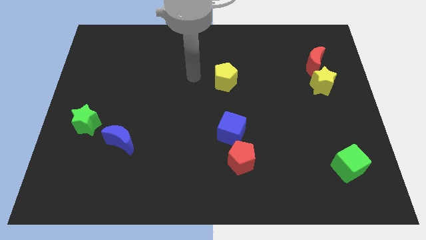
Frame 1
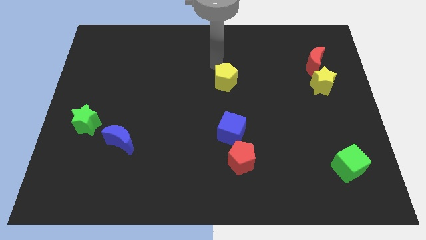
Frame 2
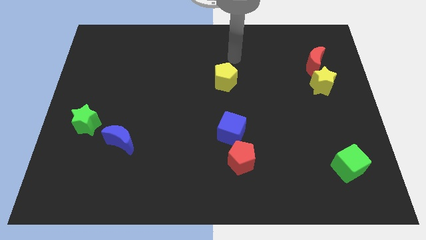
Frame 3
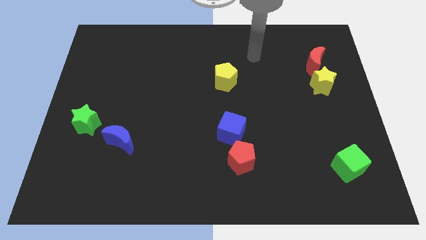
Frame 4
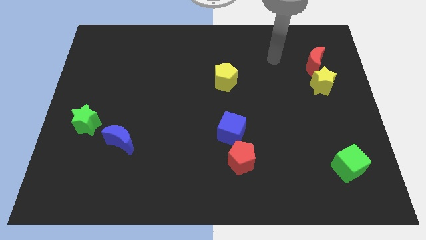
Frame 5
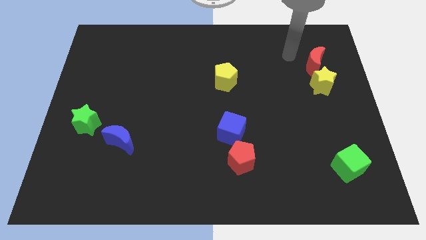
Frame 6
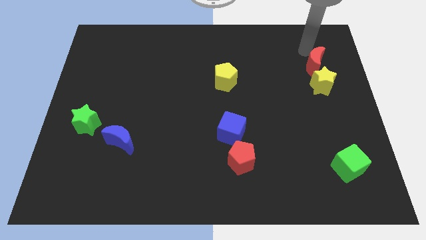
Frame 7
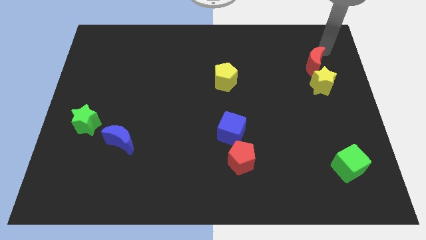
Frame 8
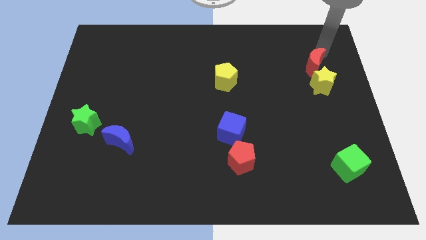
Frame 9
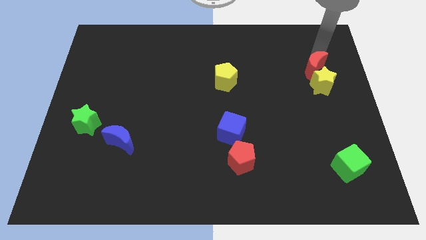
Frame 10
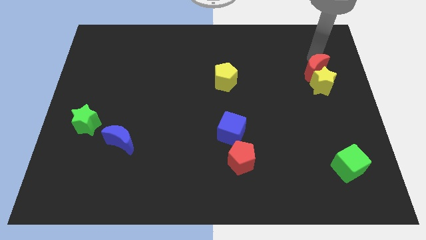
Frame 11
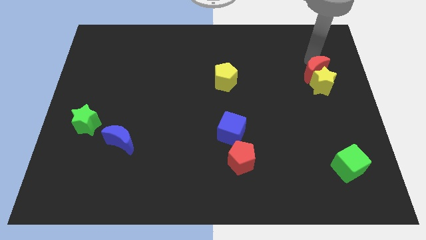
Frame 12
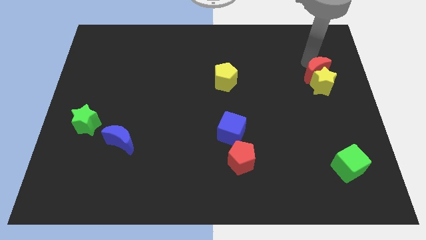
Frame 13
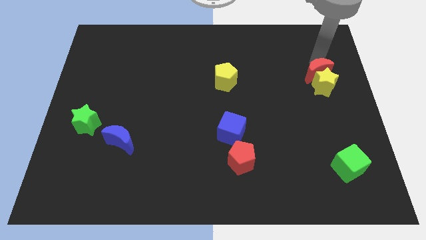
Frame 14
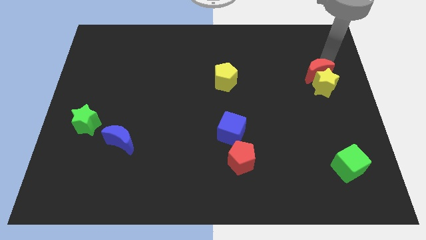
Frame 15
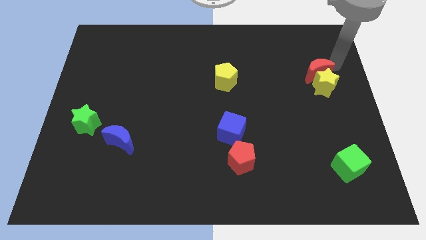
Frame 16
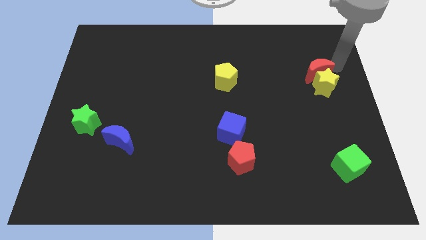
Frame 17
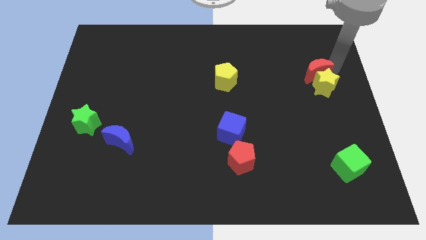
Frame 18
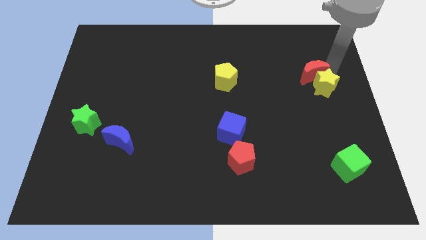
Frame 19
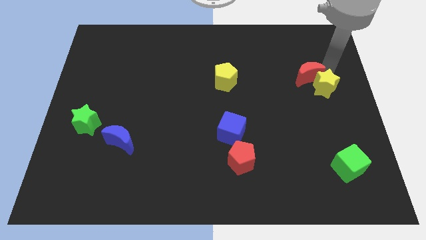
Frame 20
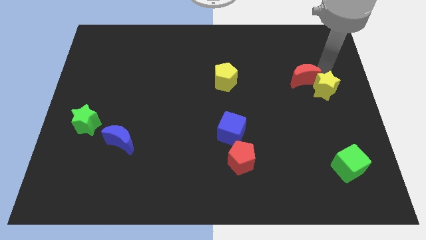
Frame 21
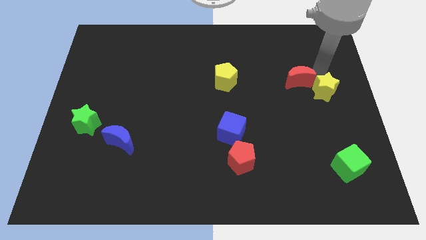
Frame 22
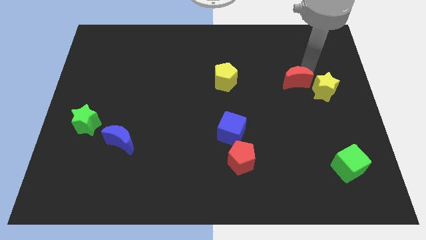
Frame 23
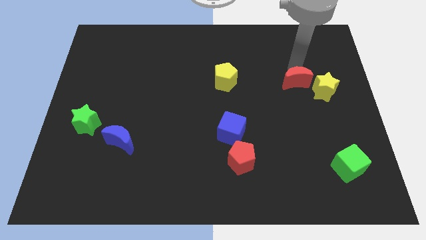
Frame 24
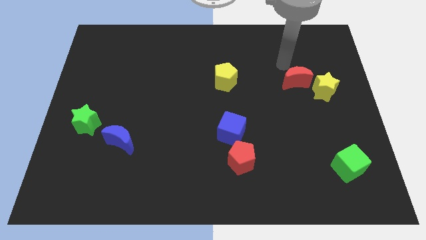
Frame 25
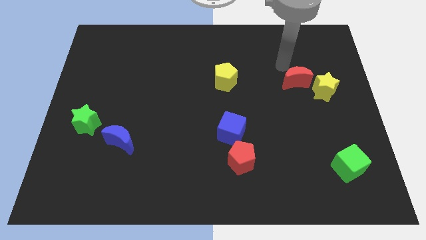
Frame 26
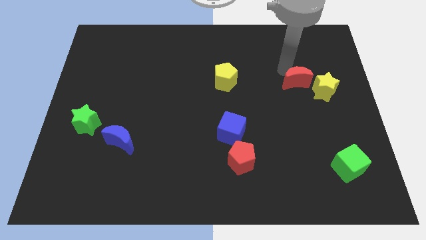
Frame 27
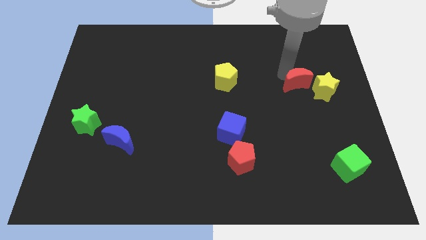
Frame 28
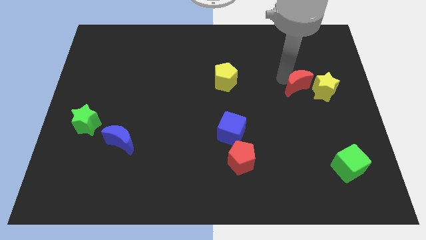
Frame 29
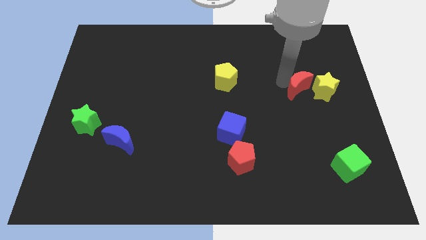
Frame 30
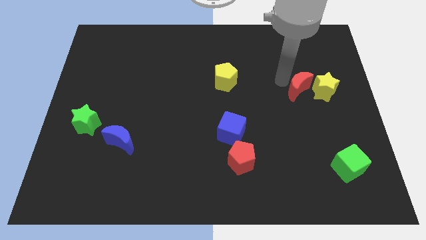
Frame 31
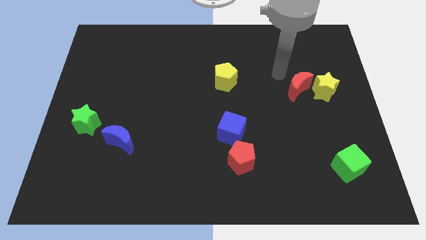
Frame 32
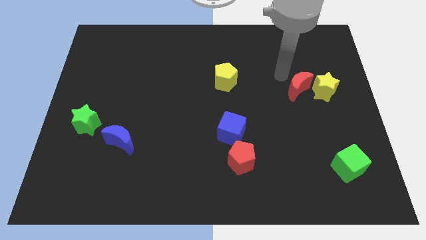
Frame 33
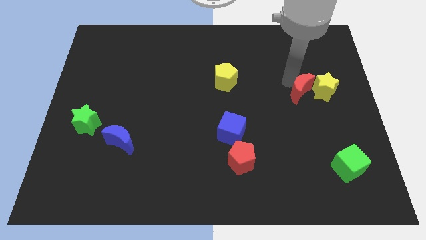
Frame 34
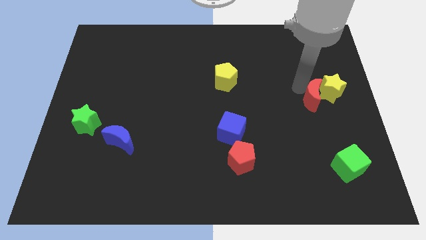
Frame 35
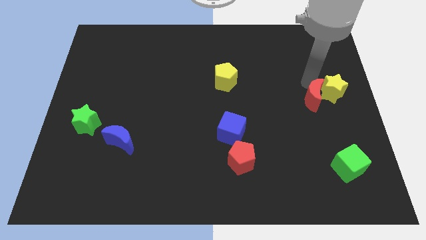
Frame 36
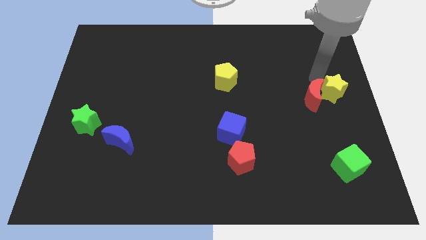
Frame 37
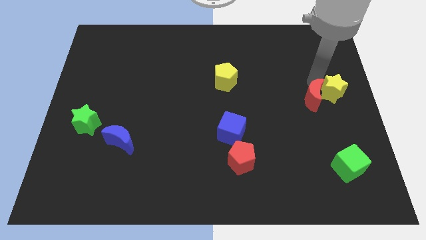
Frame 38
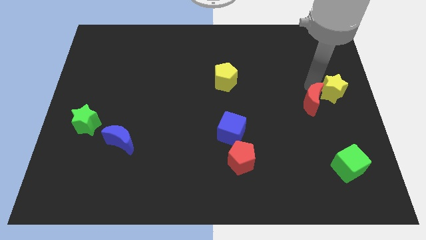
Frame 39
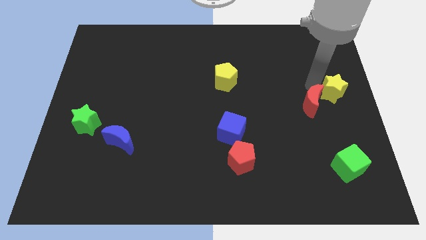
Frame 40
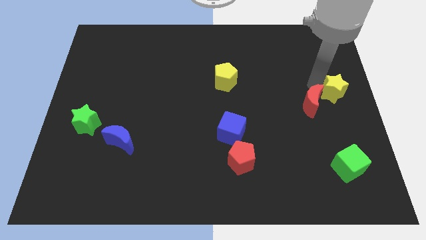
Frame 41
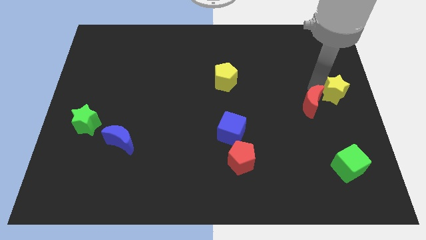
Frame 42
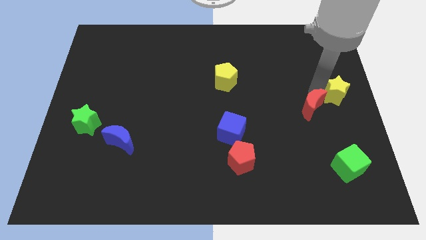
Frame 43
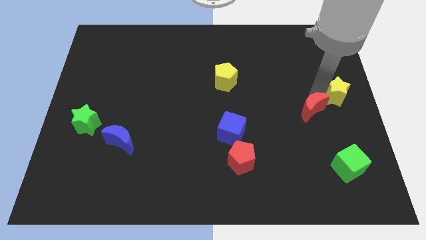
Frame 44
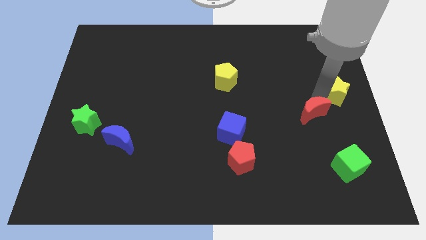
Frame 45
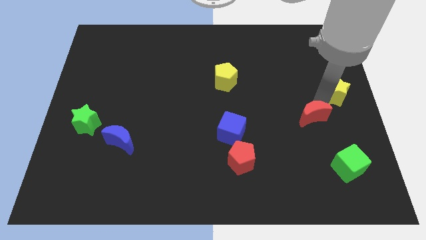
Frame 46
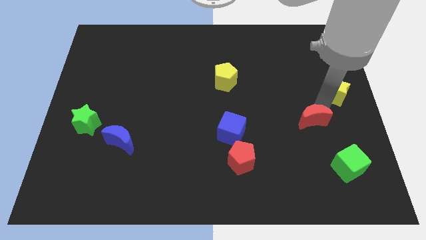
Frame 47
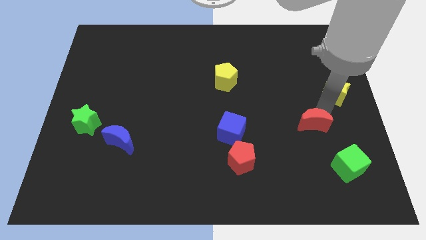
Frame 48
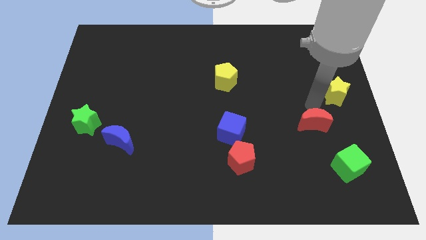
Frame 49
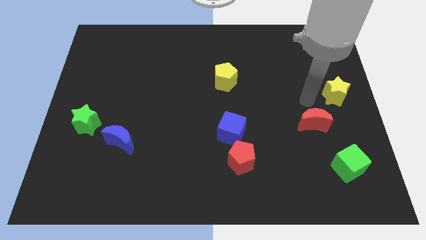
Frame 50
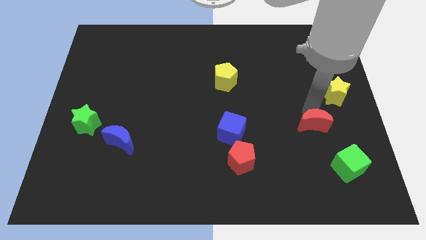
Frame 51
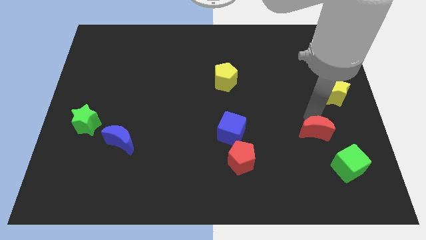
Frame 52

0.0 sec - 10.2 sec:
push the red moon to the top left side of the green cube

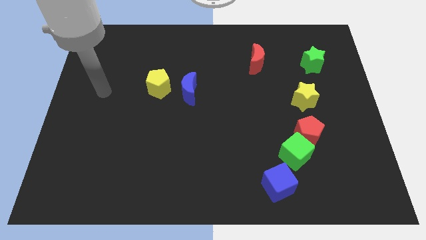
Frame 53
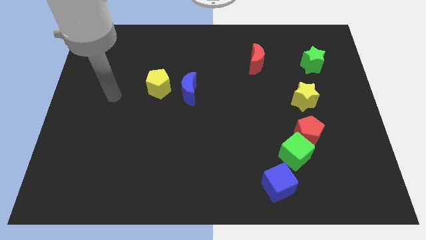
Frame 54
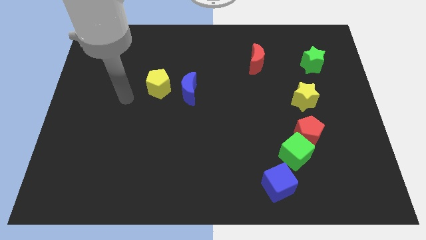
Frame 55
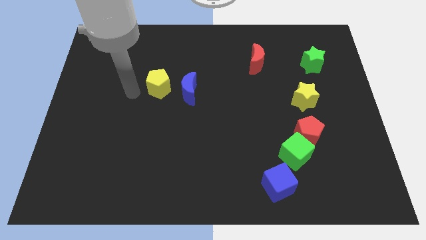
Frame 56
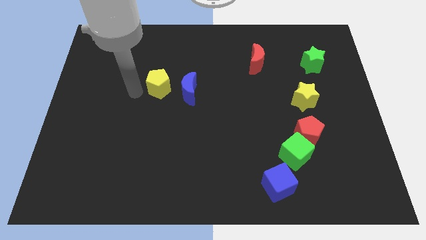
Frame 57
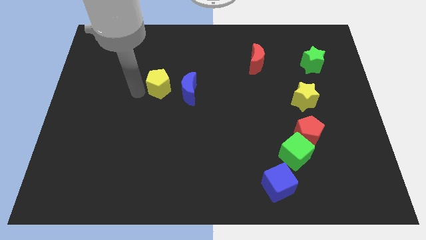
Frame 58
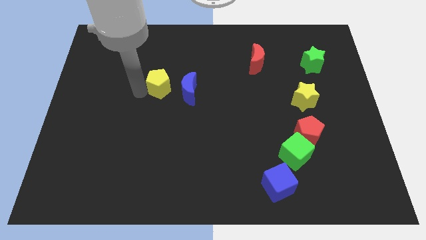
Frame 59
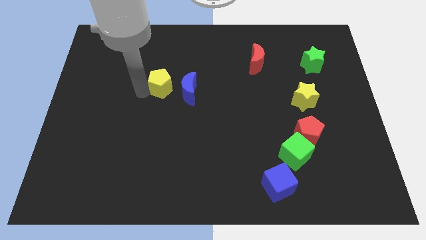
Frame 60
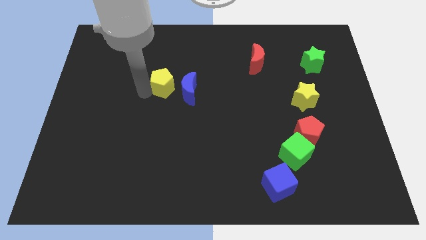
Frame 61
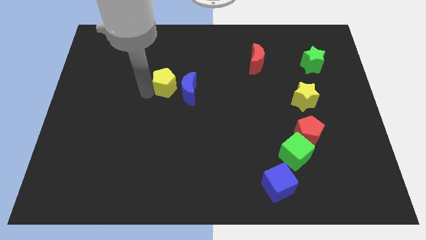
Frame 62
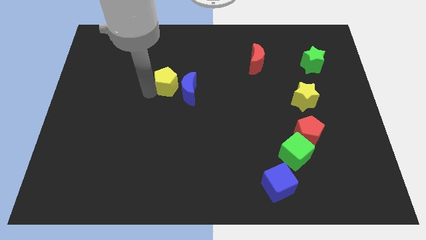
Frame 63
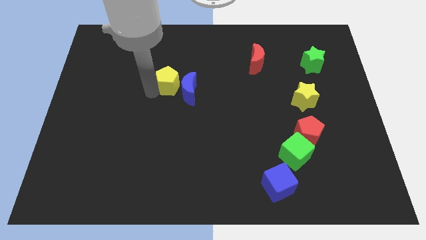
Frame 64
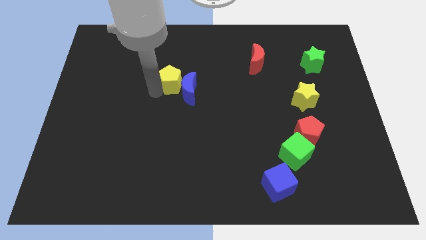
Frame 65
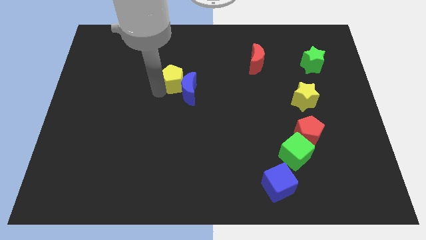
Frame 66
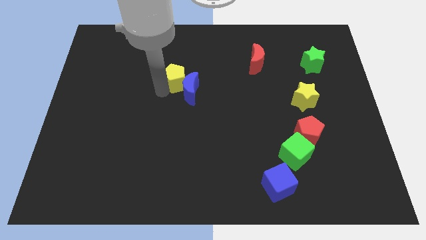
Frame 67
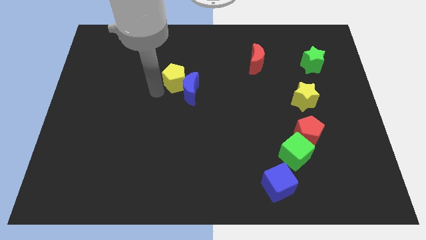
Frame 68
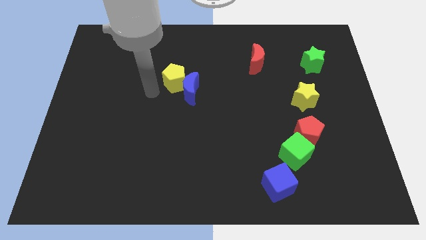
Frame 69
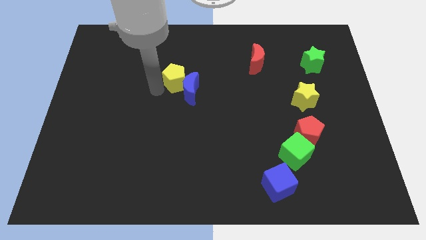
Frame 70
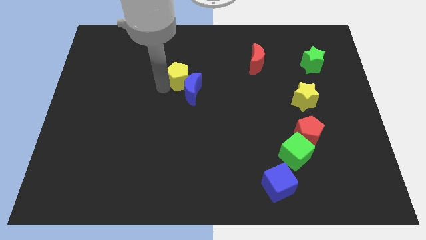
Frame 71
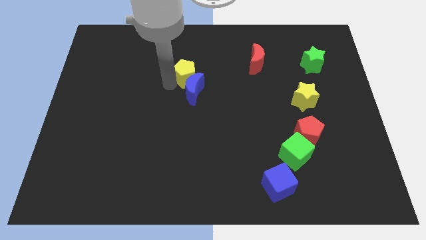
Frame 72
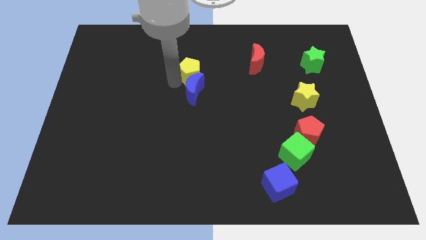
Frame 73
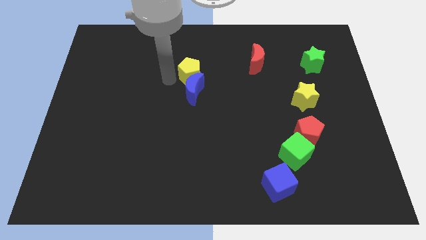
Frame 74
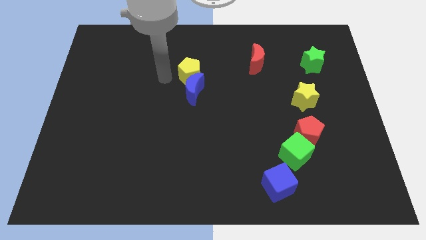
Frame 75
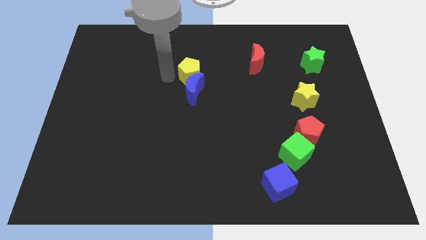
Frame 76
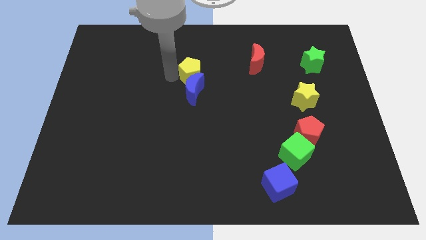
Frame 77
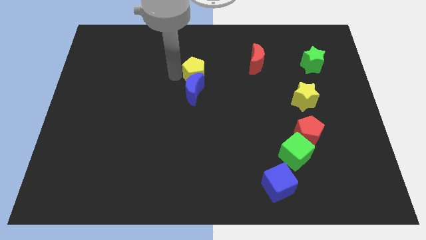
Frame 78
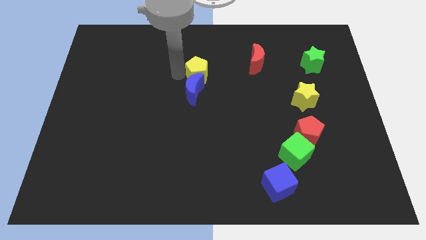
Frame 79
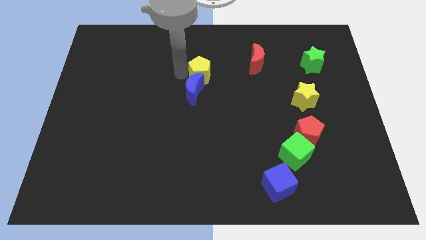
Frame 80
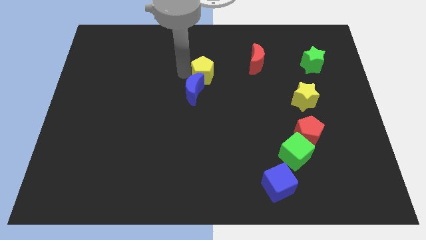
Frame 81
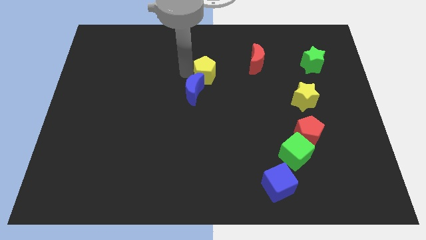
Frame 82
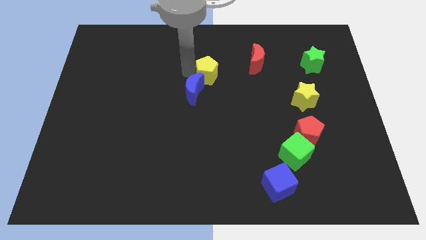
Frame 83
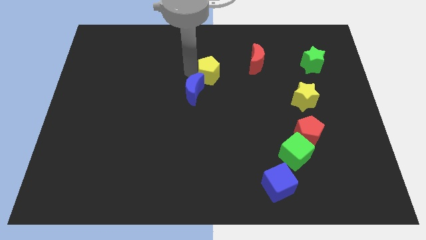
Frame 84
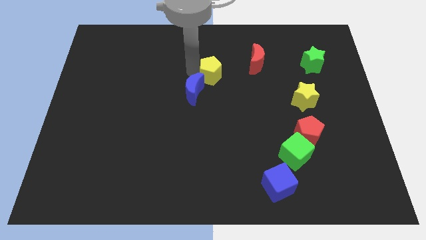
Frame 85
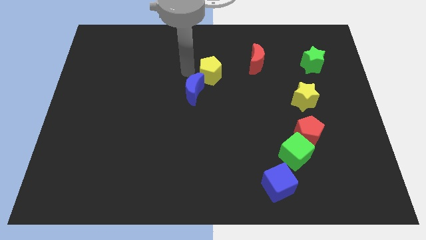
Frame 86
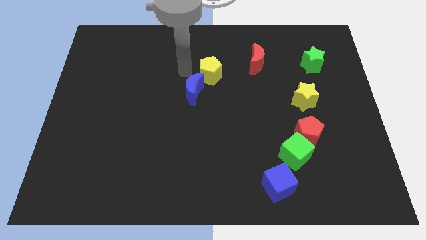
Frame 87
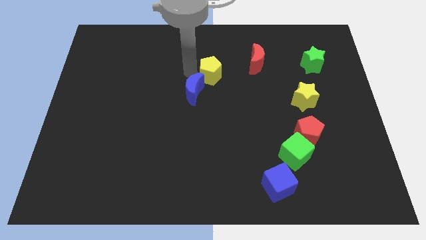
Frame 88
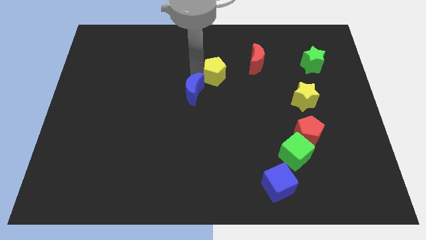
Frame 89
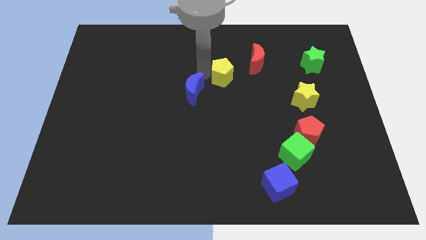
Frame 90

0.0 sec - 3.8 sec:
push the yellow pentagon to the bottom left of the red moon
